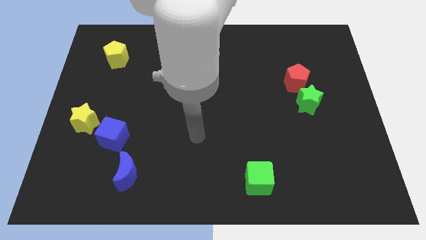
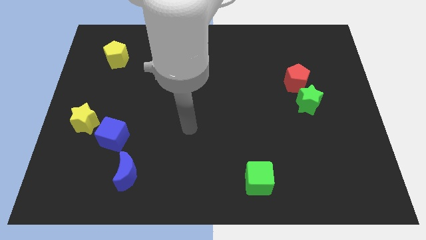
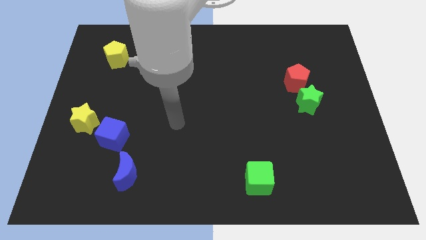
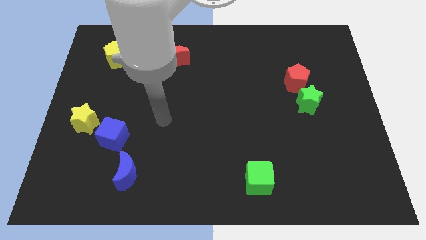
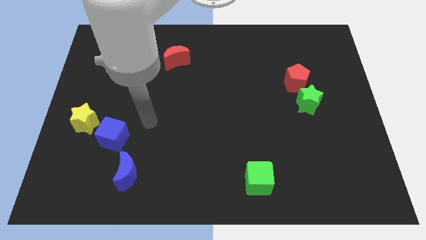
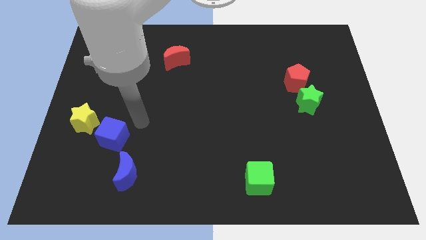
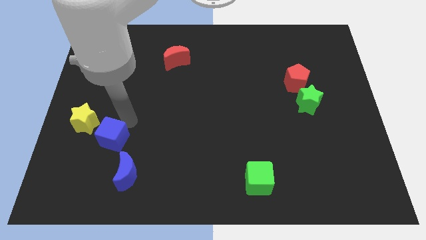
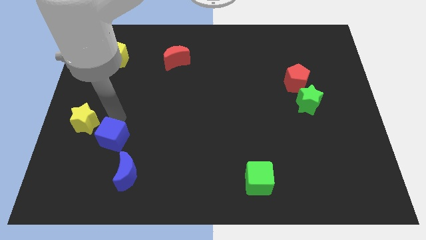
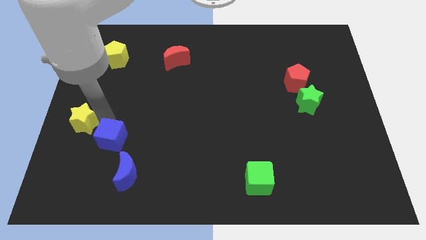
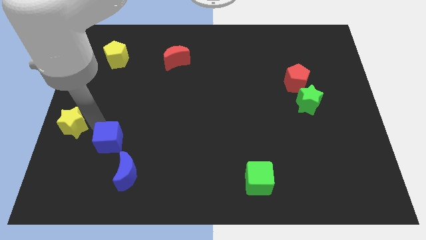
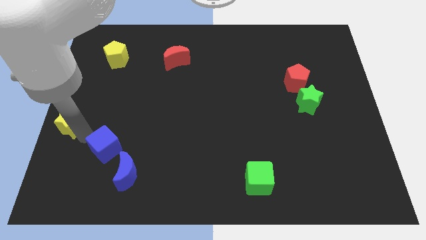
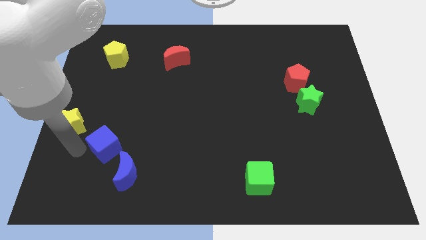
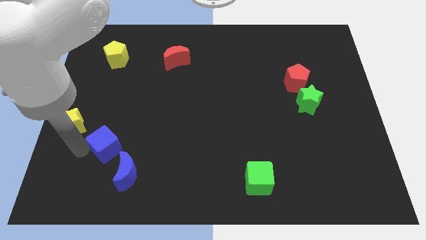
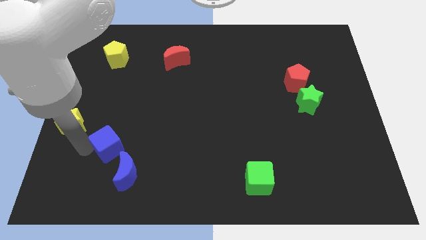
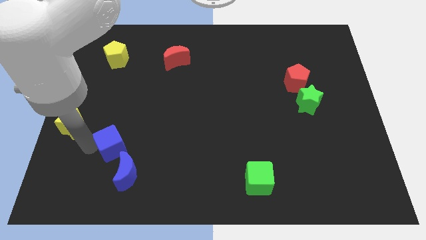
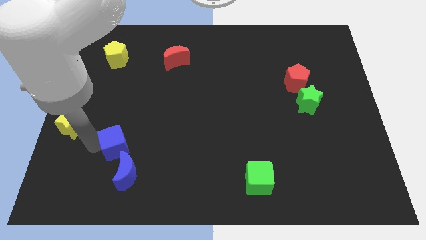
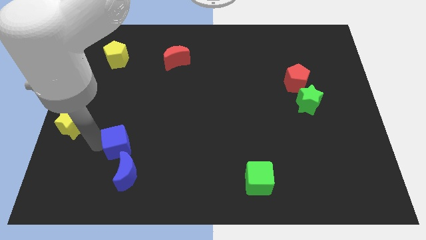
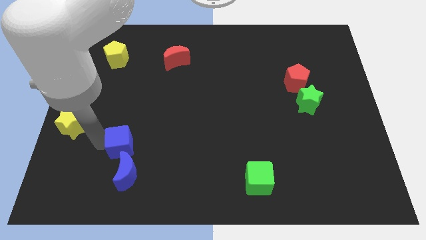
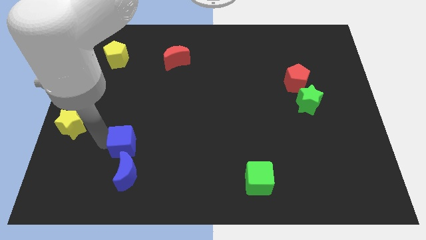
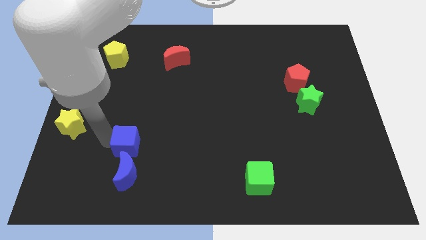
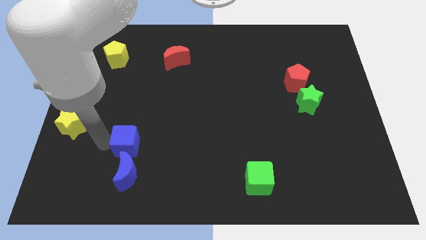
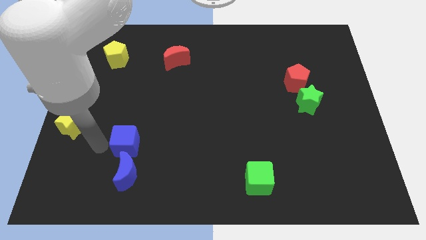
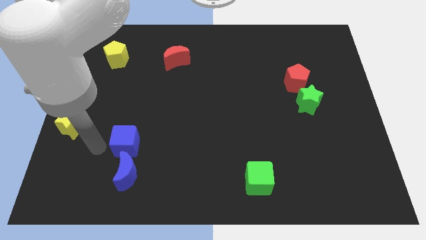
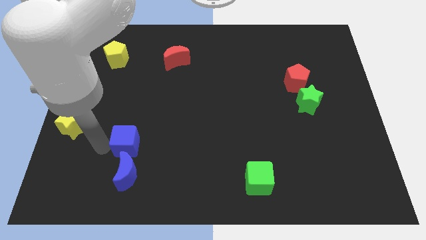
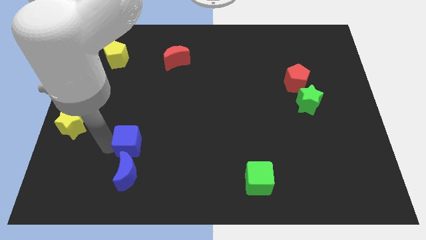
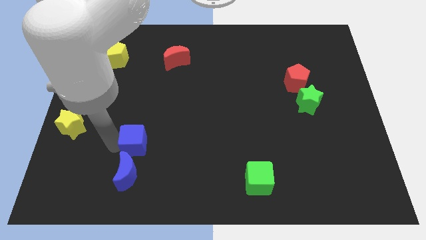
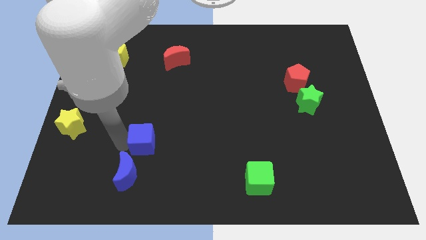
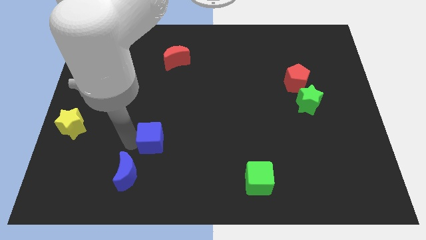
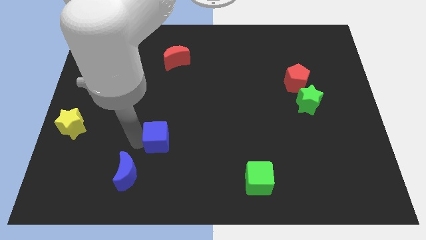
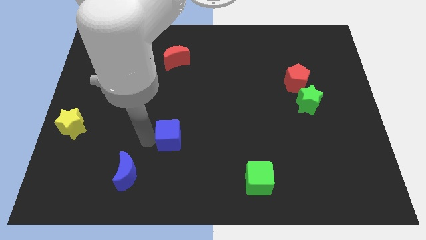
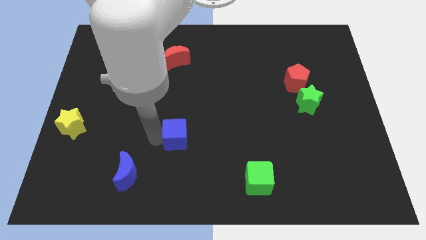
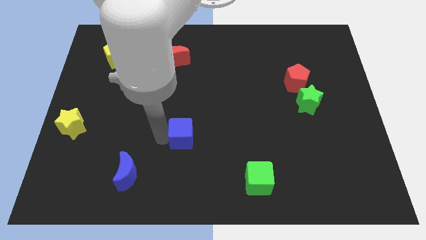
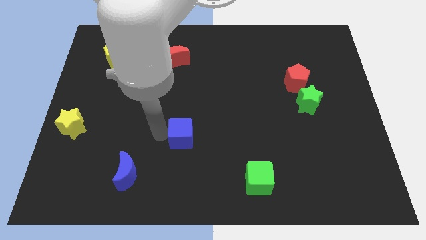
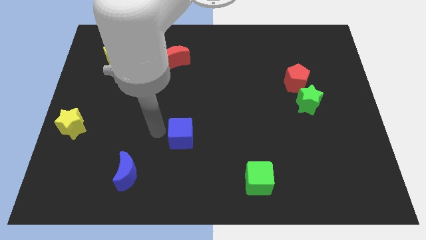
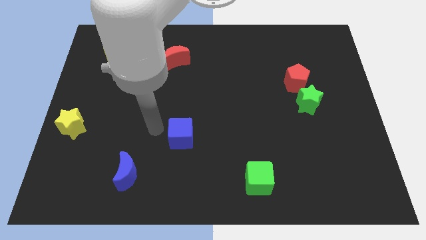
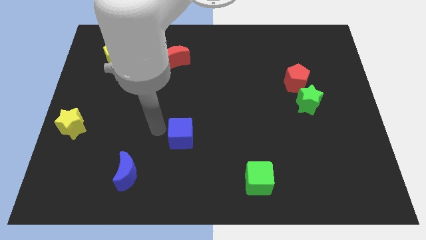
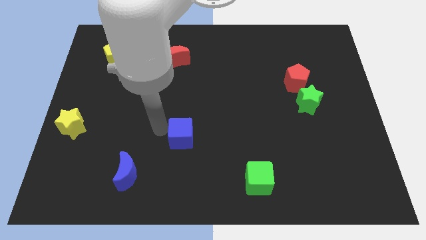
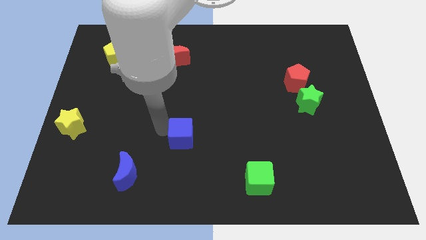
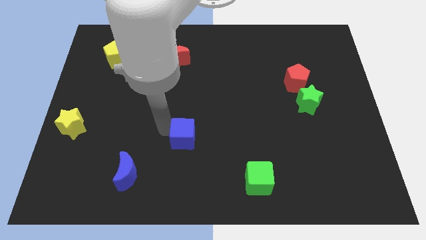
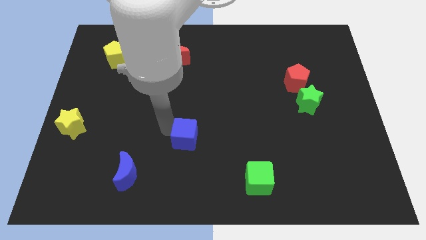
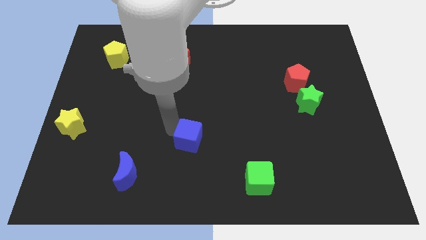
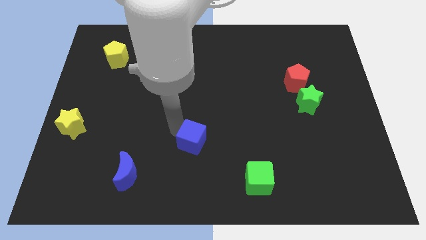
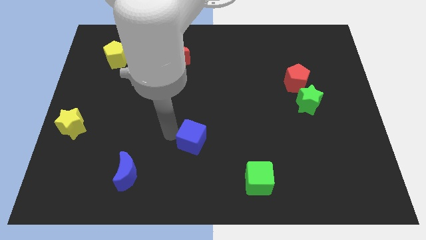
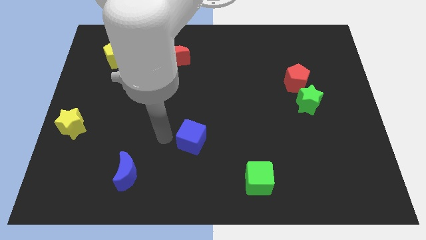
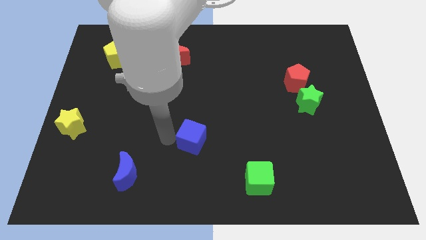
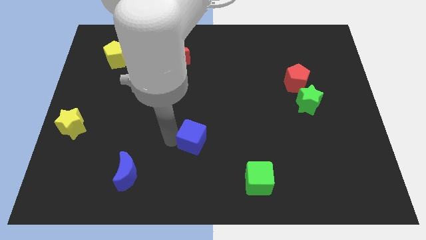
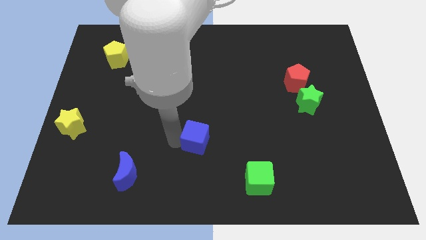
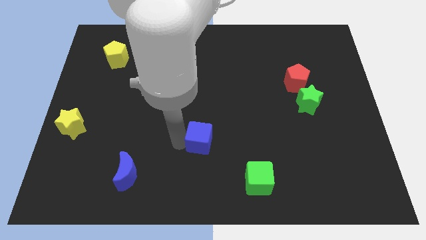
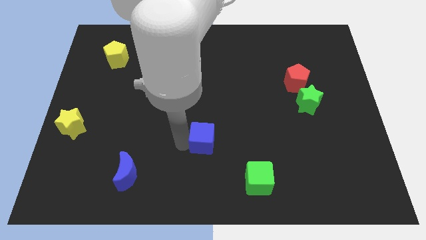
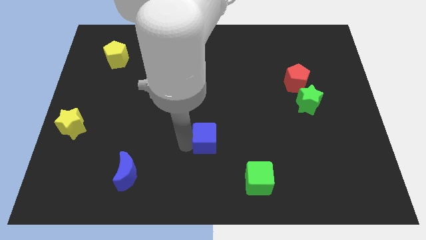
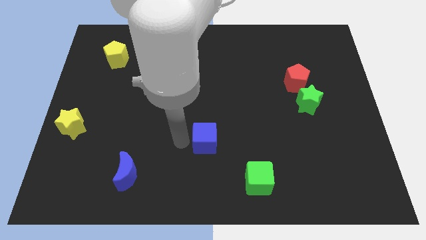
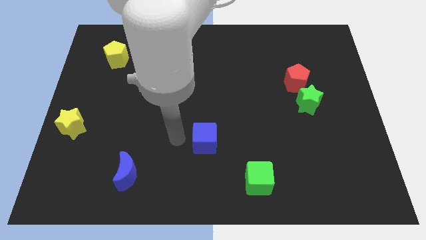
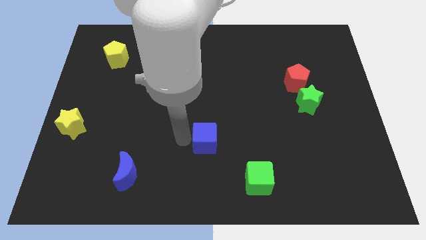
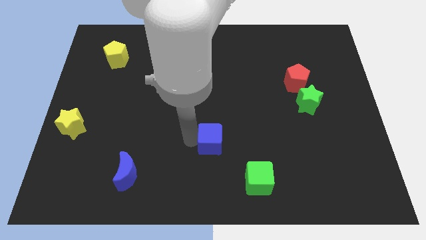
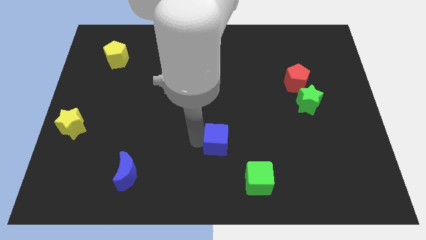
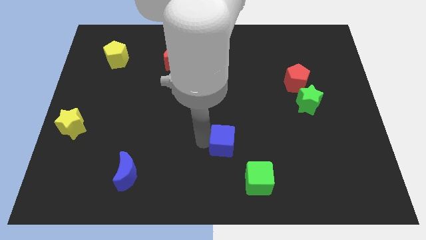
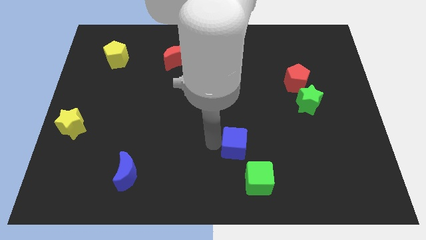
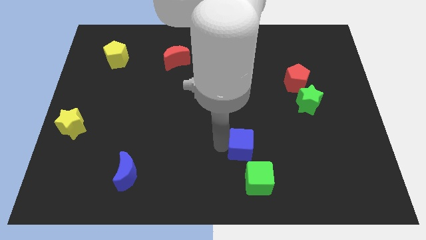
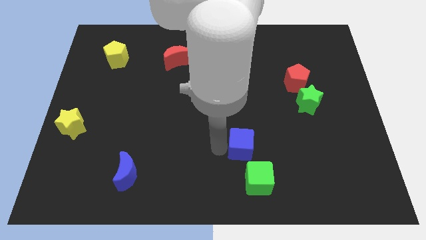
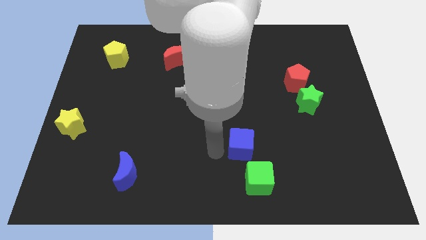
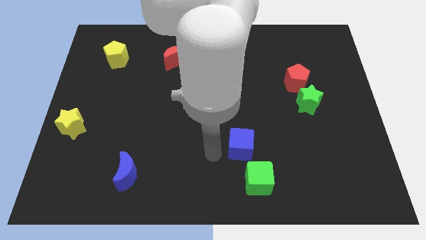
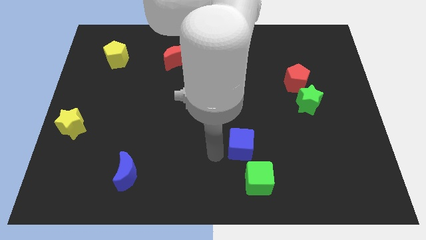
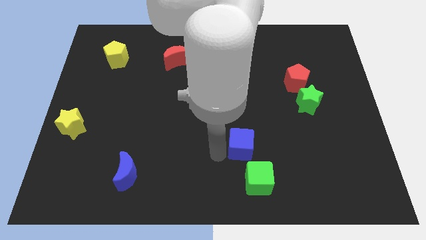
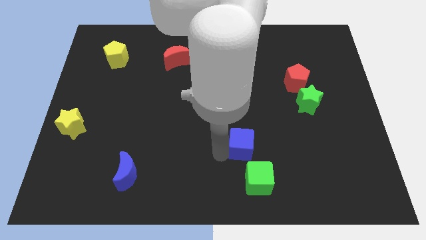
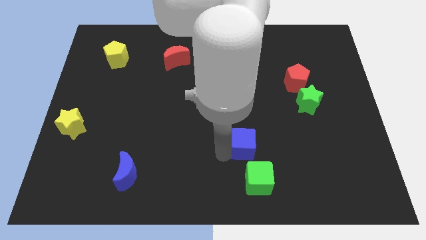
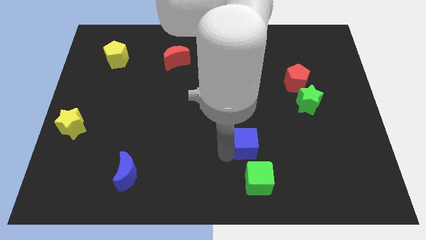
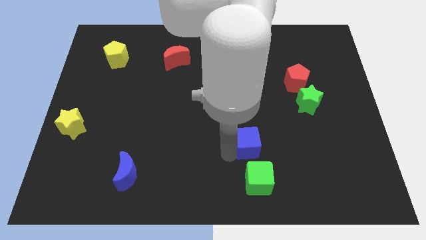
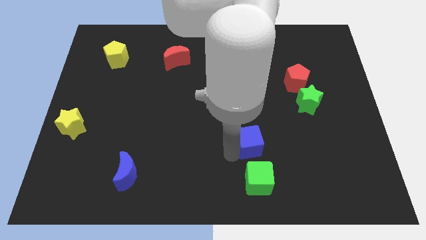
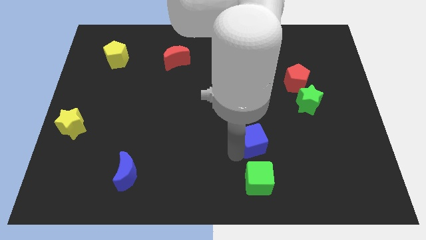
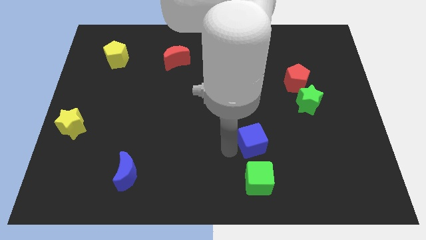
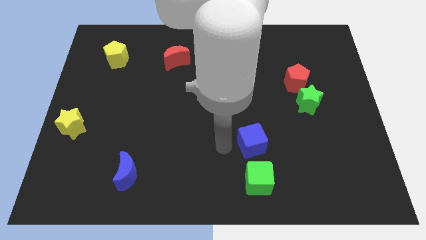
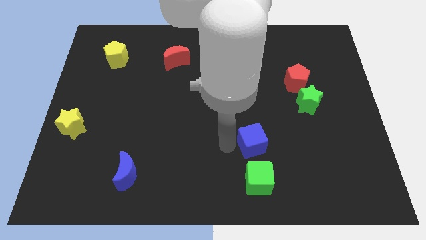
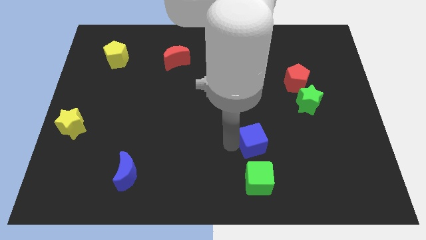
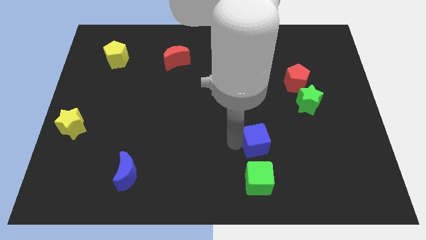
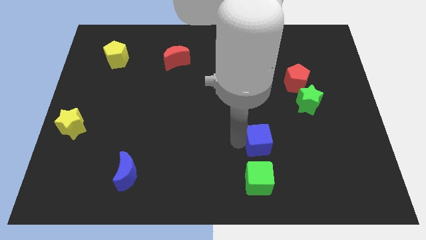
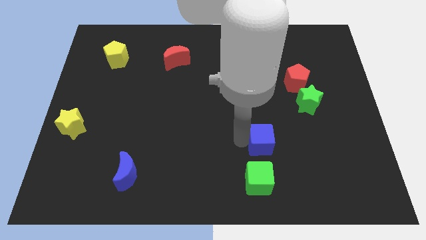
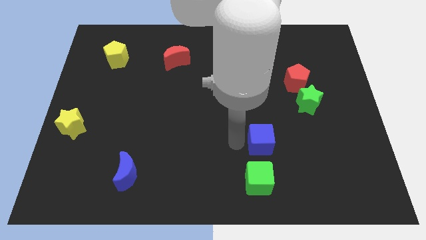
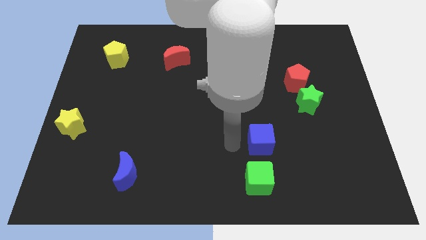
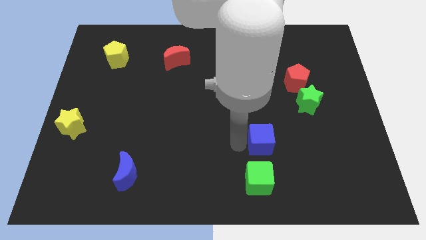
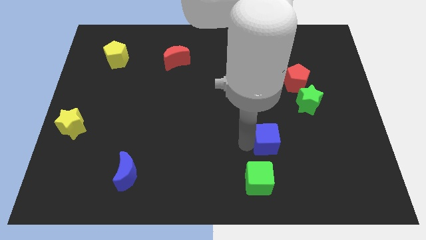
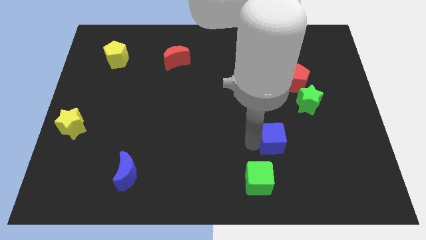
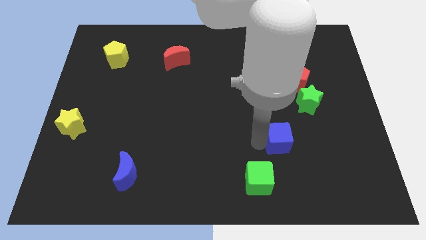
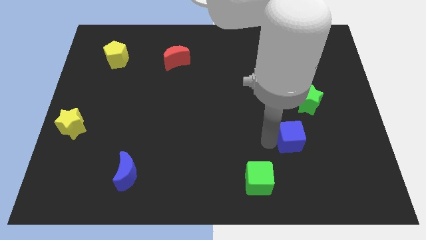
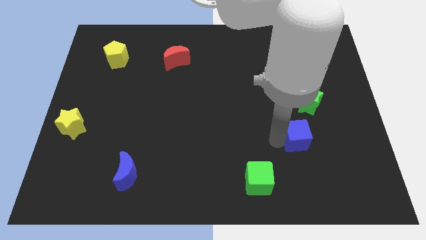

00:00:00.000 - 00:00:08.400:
put the blue cube below the green star
